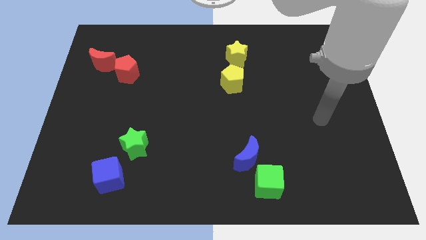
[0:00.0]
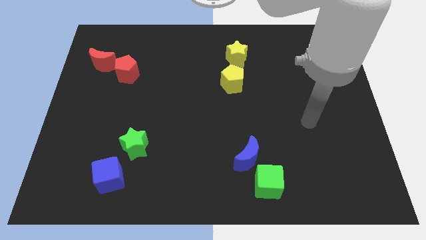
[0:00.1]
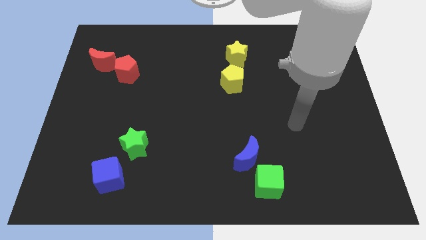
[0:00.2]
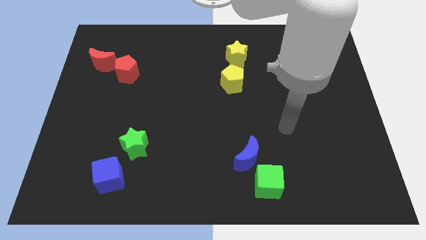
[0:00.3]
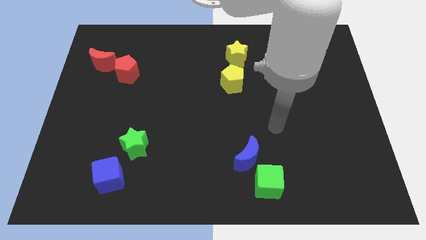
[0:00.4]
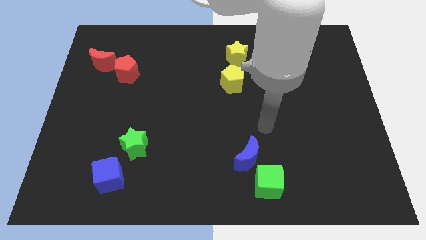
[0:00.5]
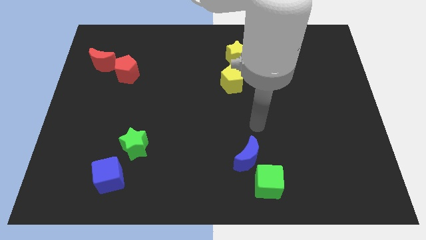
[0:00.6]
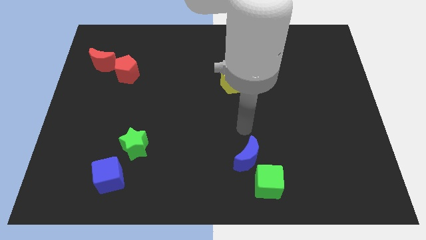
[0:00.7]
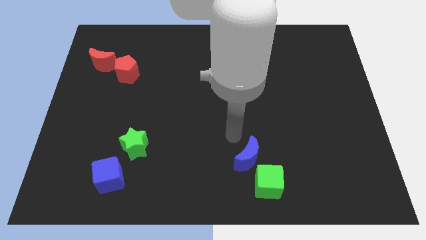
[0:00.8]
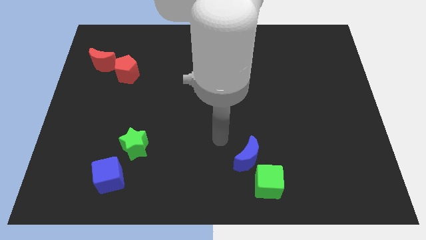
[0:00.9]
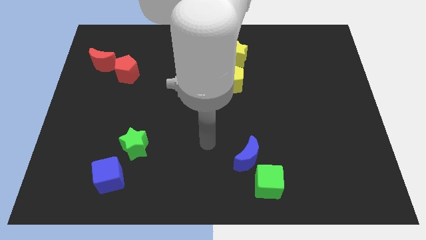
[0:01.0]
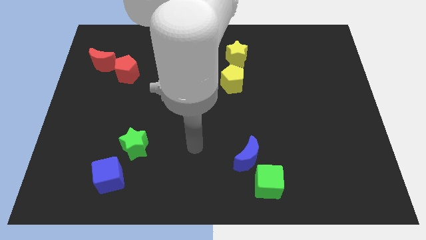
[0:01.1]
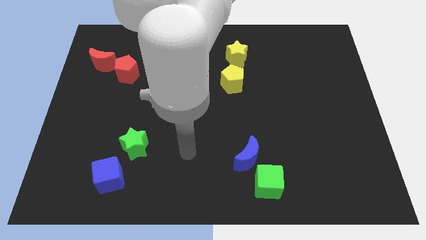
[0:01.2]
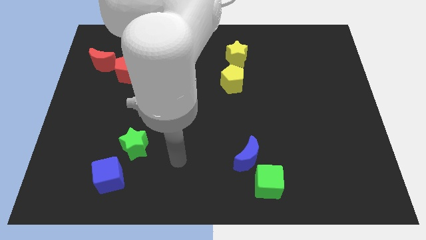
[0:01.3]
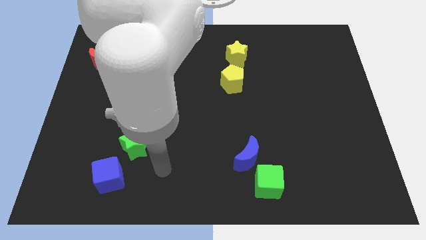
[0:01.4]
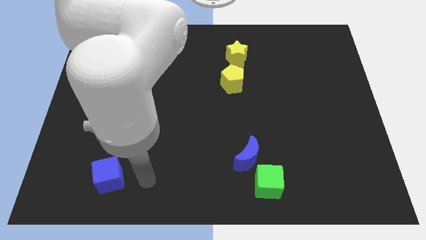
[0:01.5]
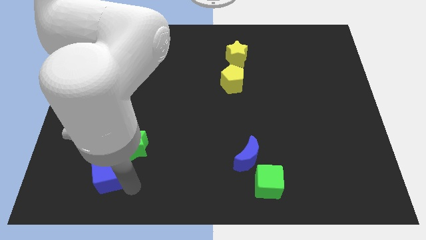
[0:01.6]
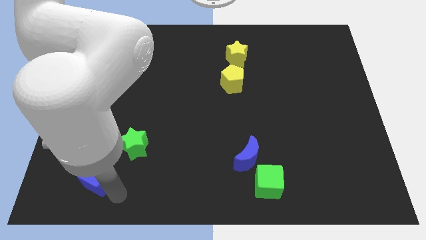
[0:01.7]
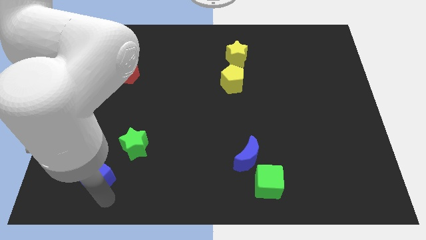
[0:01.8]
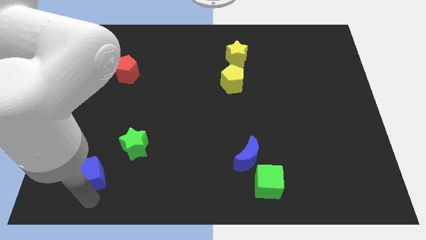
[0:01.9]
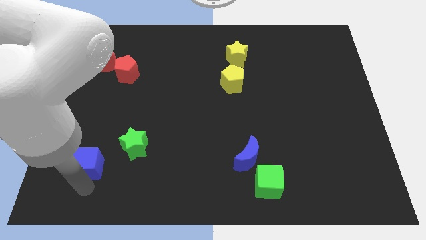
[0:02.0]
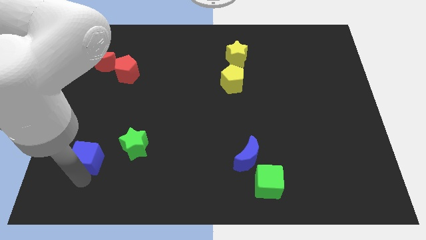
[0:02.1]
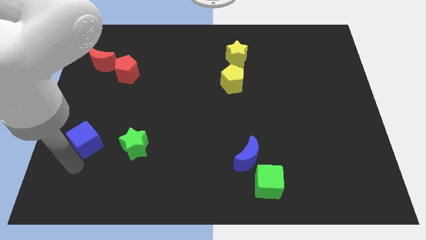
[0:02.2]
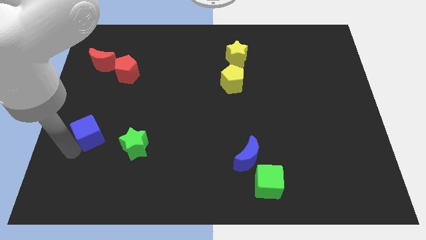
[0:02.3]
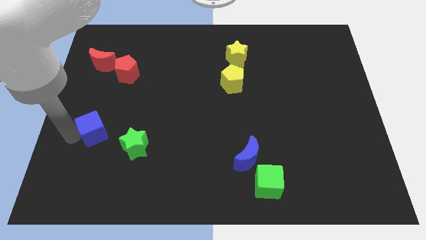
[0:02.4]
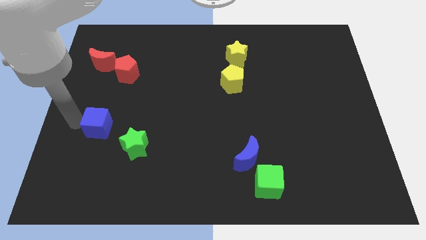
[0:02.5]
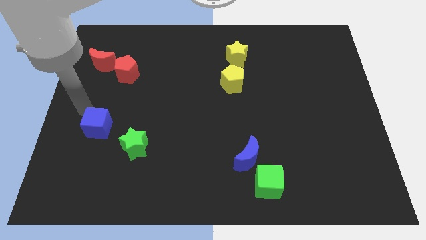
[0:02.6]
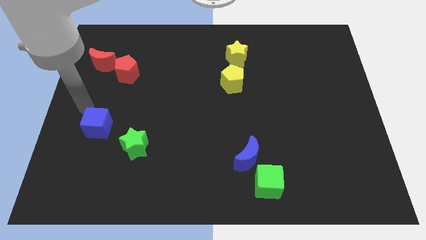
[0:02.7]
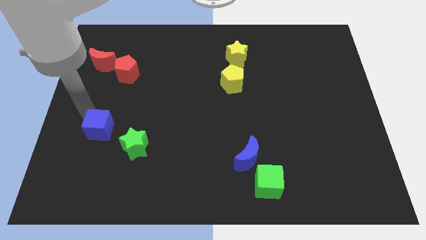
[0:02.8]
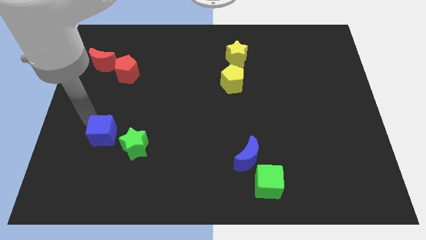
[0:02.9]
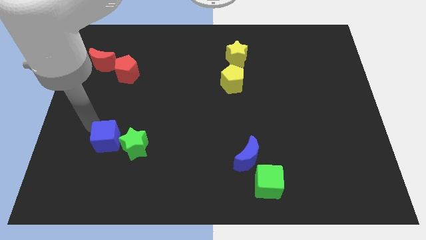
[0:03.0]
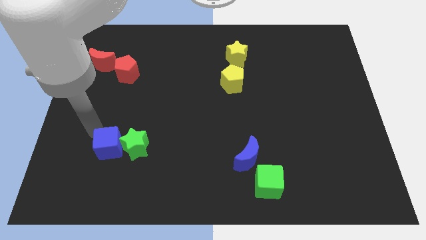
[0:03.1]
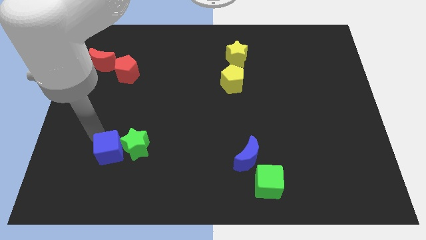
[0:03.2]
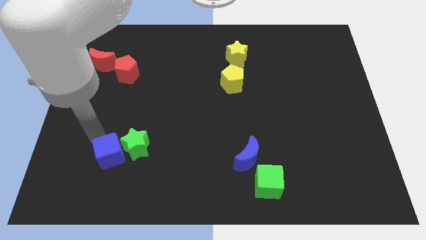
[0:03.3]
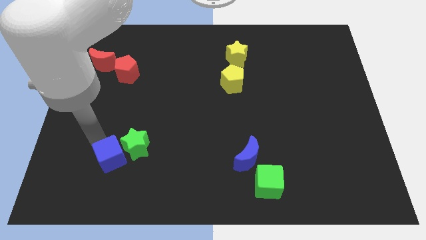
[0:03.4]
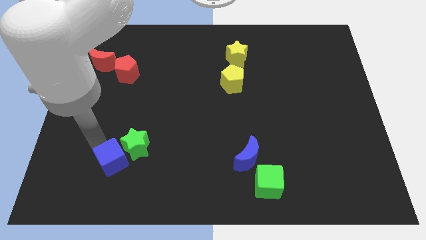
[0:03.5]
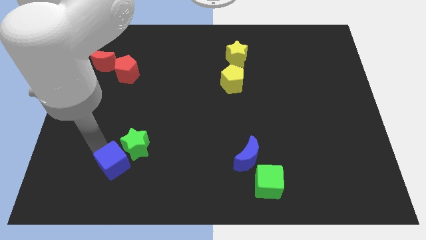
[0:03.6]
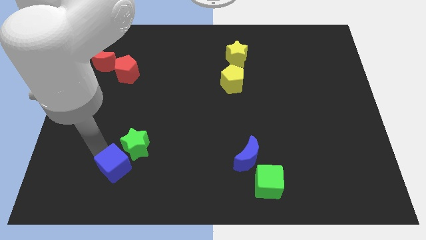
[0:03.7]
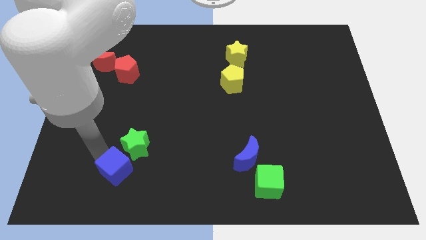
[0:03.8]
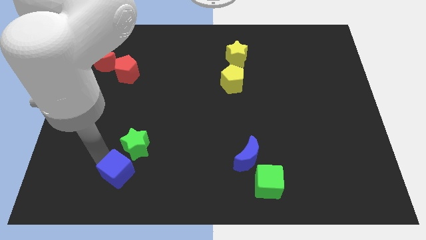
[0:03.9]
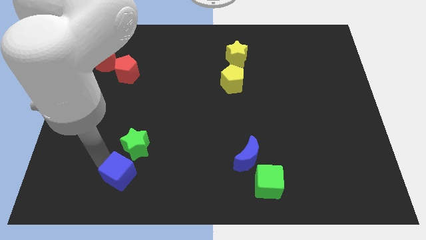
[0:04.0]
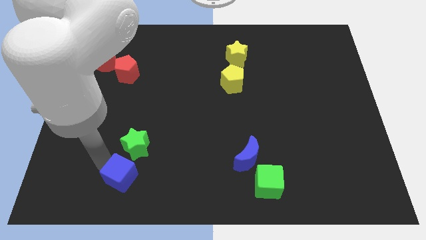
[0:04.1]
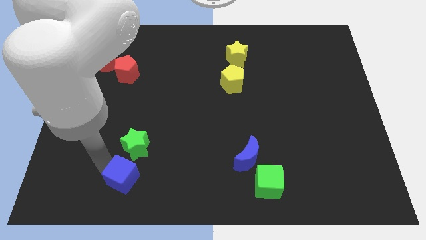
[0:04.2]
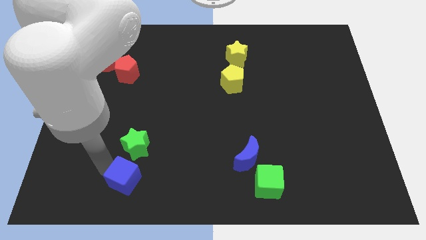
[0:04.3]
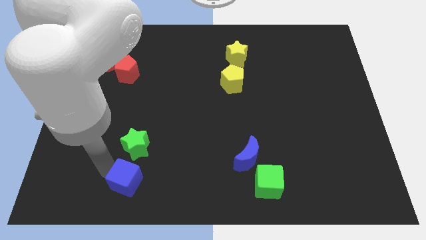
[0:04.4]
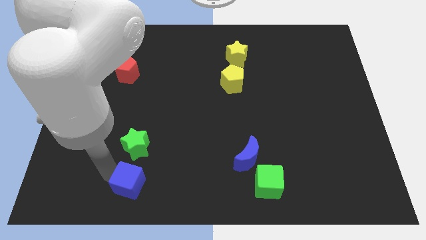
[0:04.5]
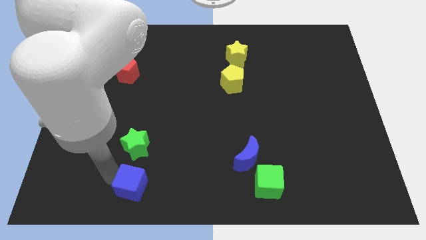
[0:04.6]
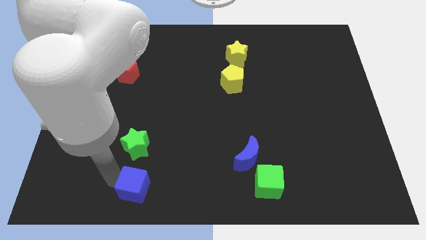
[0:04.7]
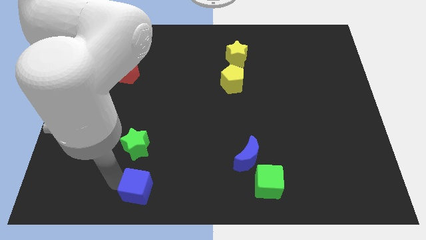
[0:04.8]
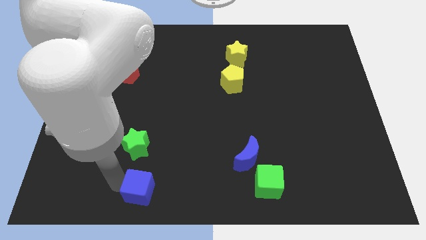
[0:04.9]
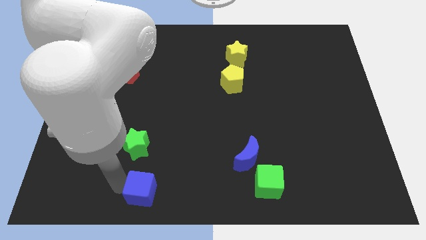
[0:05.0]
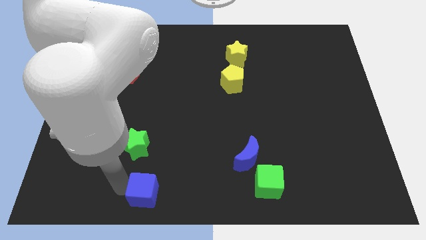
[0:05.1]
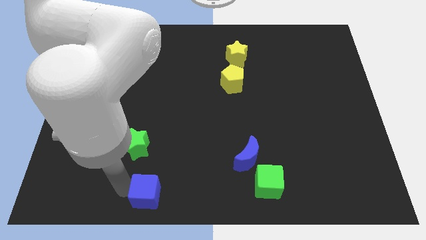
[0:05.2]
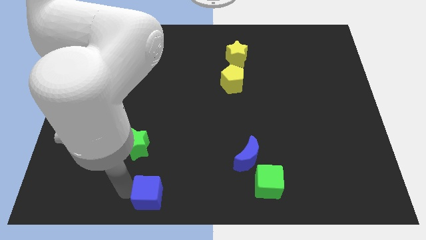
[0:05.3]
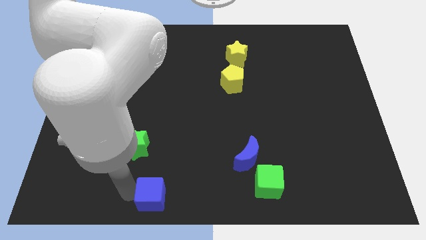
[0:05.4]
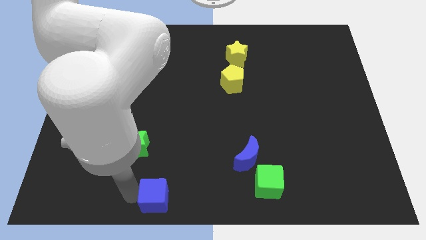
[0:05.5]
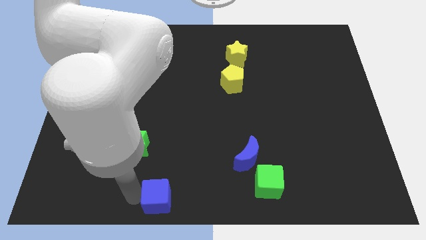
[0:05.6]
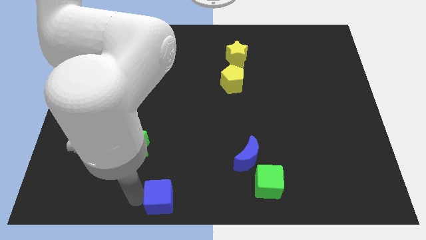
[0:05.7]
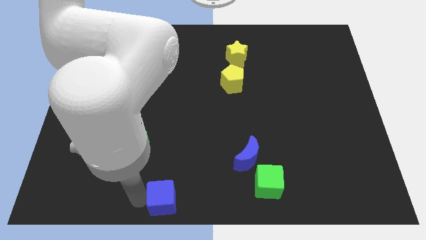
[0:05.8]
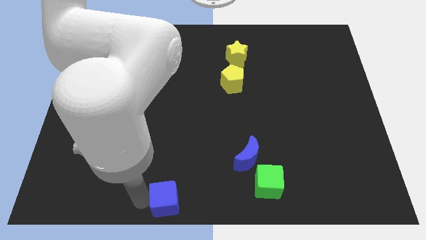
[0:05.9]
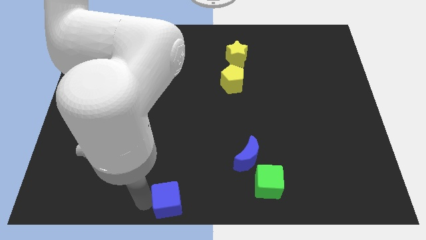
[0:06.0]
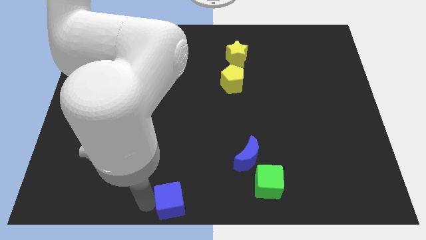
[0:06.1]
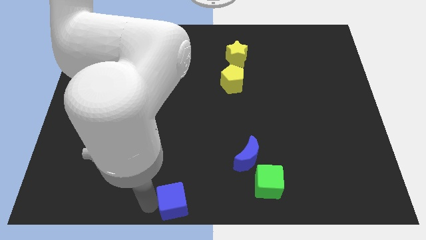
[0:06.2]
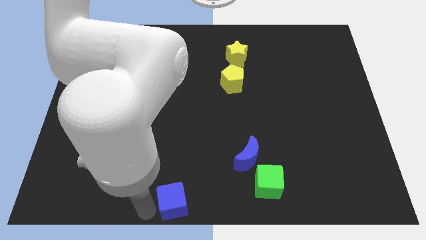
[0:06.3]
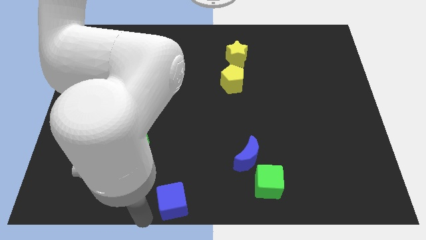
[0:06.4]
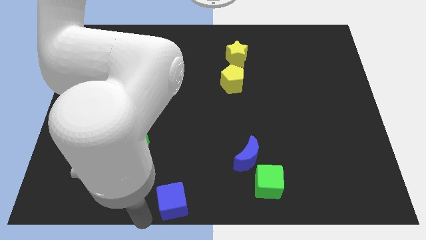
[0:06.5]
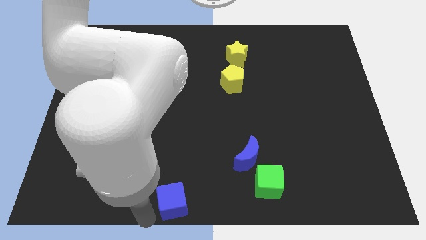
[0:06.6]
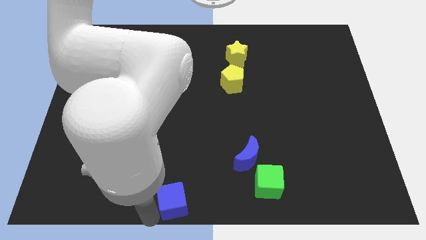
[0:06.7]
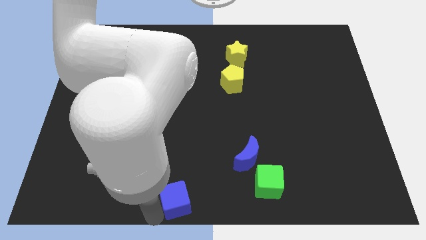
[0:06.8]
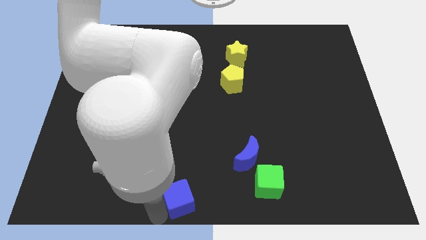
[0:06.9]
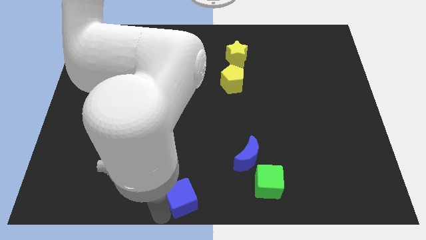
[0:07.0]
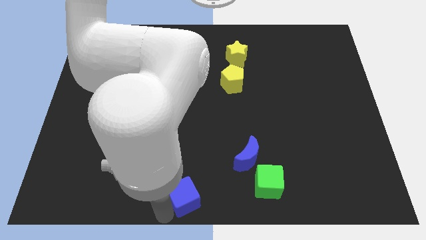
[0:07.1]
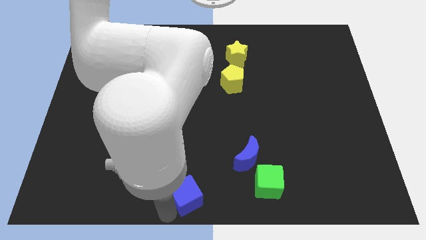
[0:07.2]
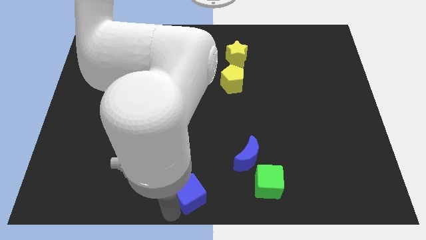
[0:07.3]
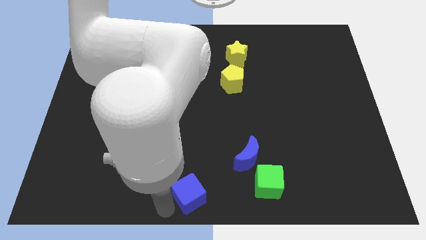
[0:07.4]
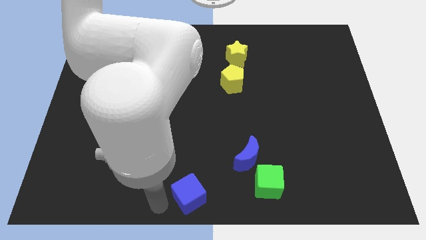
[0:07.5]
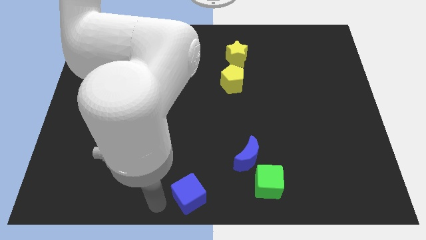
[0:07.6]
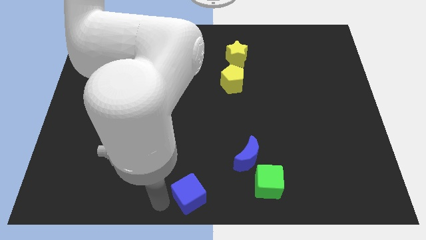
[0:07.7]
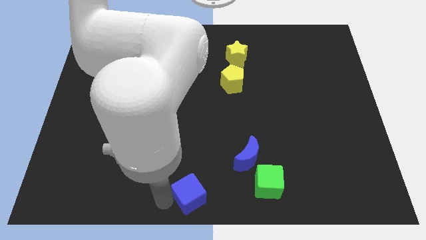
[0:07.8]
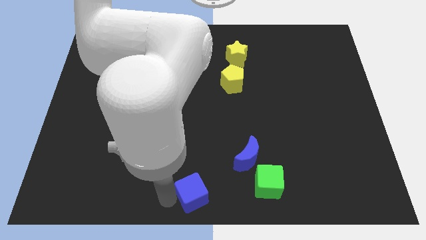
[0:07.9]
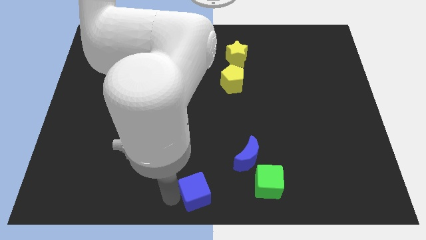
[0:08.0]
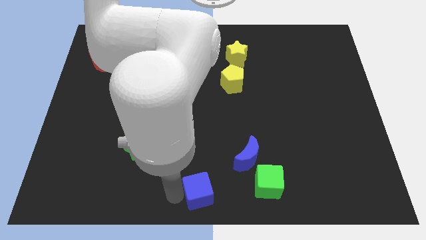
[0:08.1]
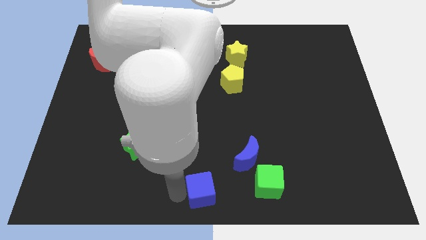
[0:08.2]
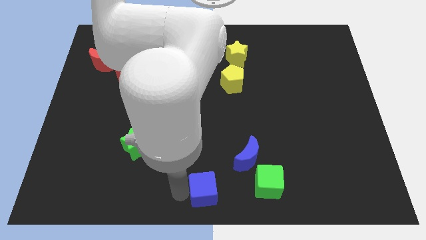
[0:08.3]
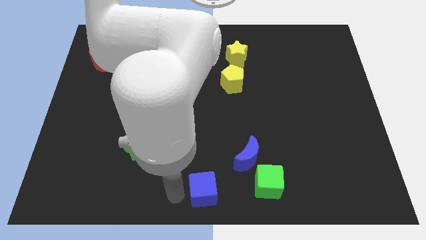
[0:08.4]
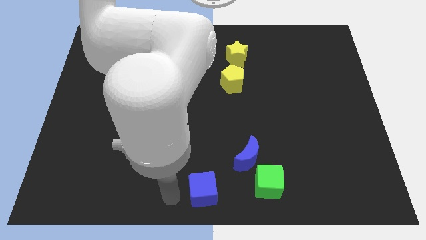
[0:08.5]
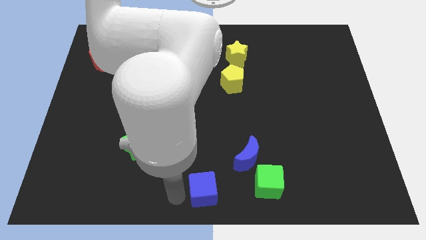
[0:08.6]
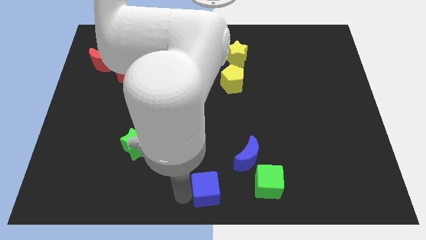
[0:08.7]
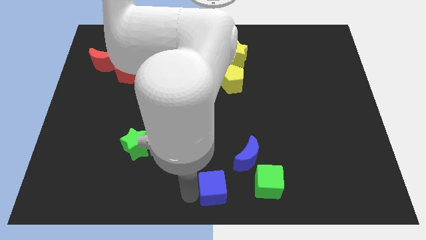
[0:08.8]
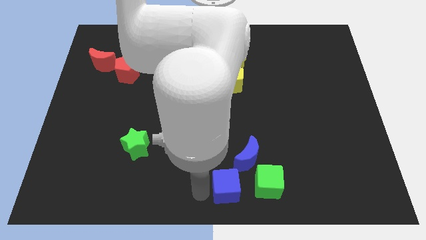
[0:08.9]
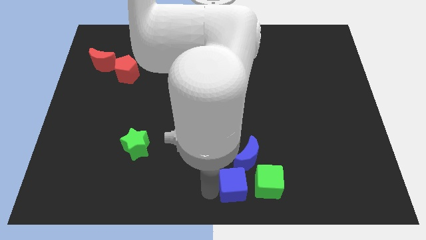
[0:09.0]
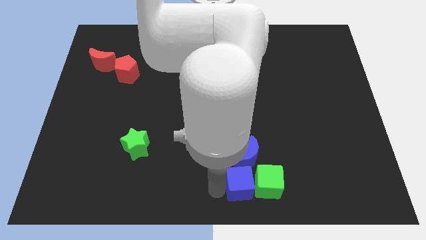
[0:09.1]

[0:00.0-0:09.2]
put the blue cube next to the green cube
